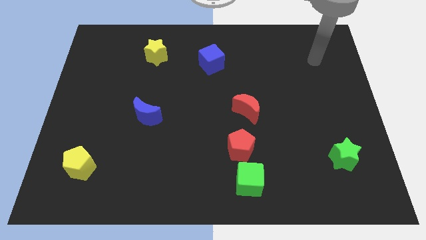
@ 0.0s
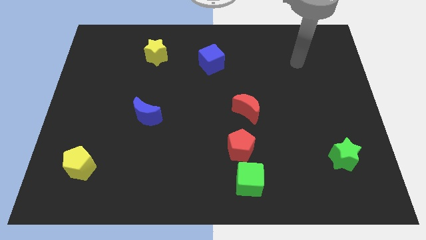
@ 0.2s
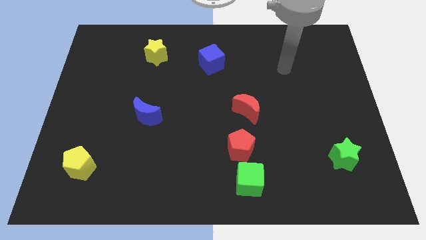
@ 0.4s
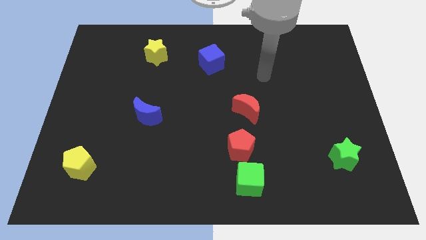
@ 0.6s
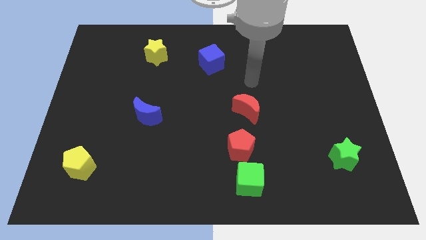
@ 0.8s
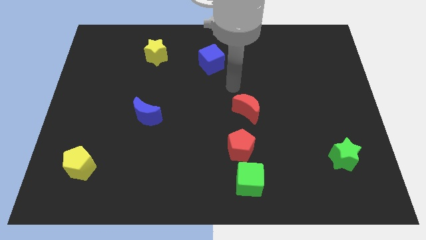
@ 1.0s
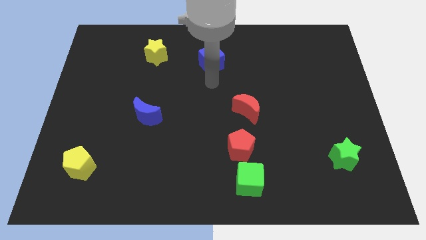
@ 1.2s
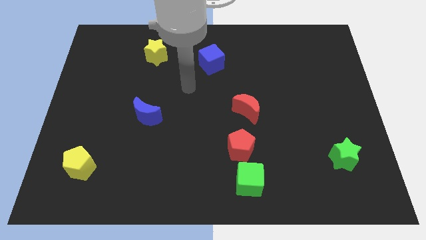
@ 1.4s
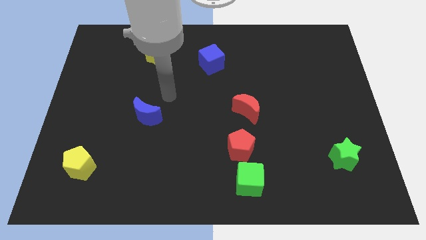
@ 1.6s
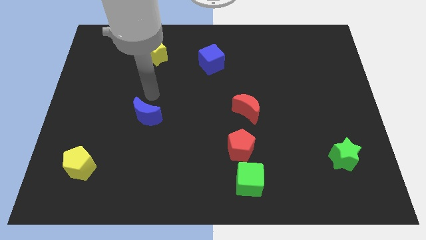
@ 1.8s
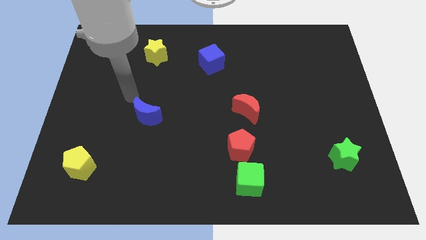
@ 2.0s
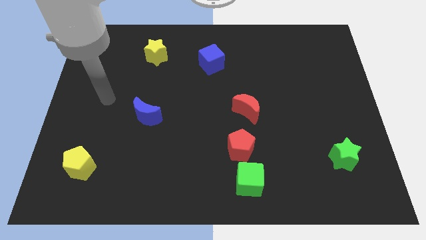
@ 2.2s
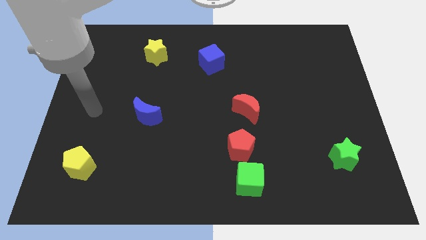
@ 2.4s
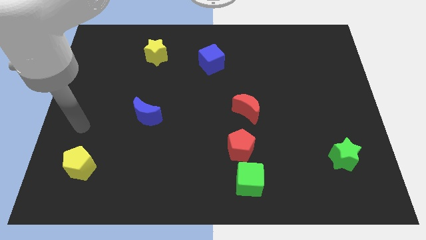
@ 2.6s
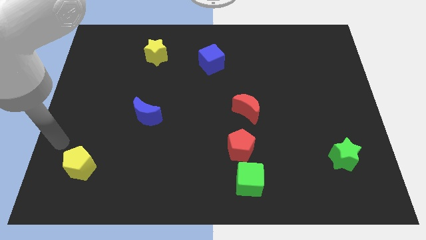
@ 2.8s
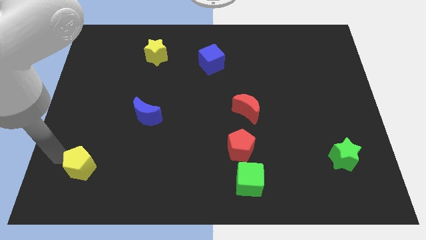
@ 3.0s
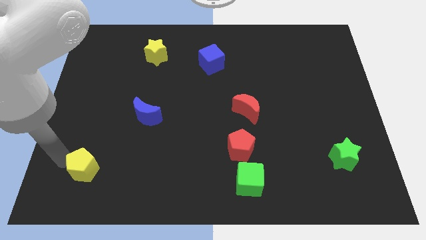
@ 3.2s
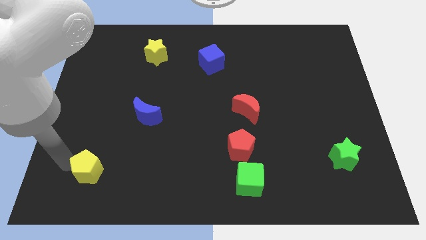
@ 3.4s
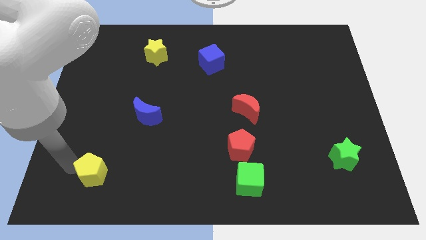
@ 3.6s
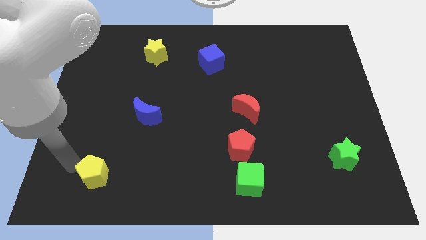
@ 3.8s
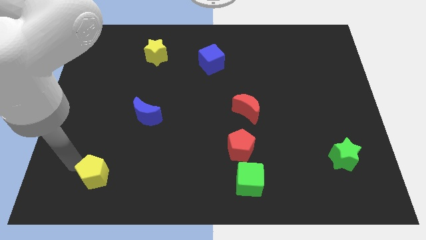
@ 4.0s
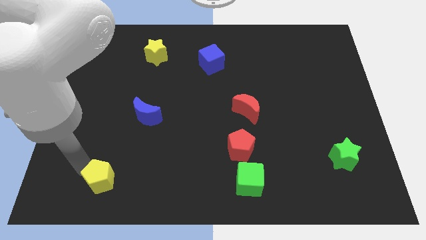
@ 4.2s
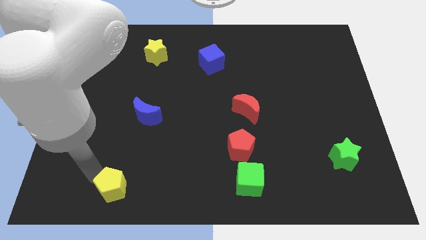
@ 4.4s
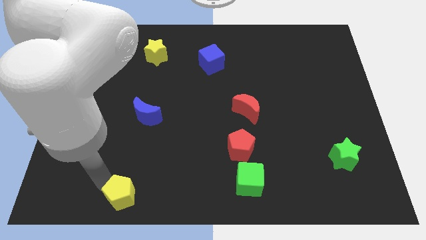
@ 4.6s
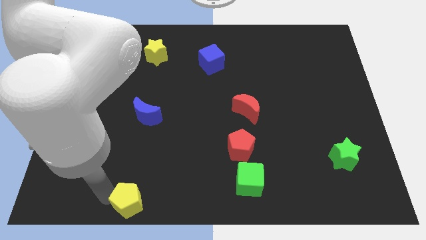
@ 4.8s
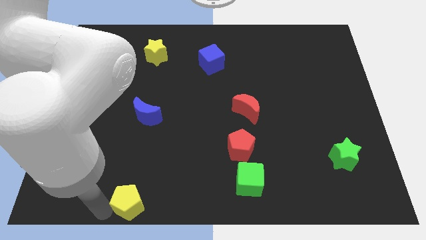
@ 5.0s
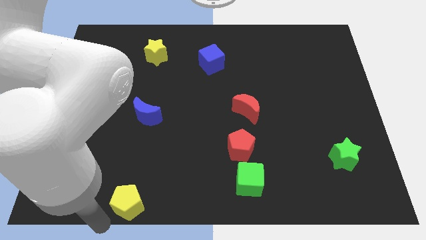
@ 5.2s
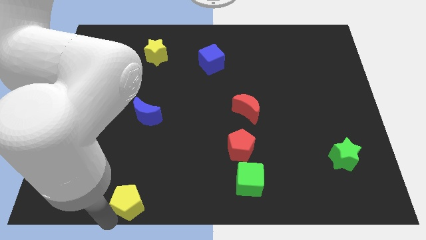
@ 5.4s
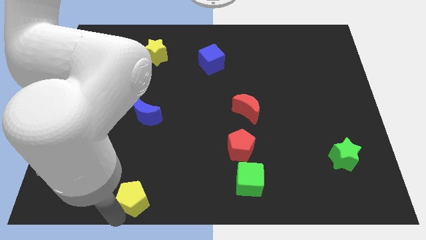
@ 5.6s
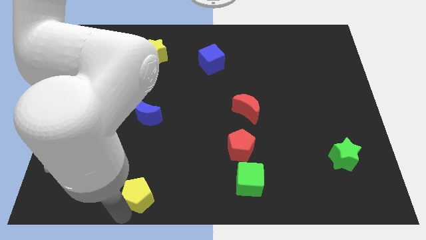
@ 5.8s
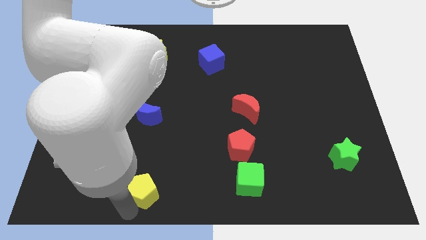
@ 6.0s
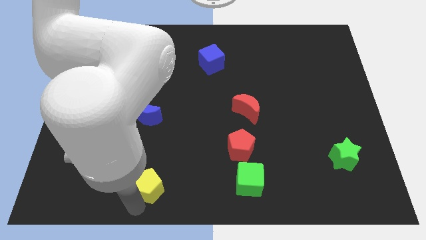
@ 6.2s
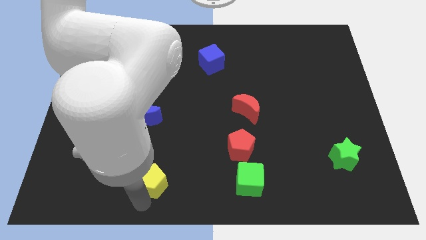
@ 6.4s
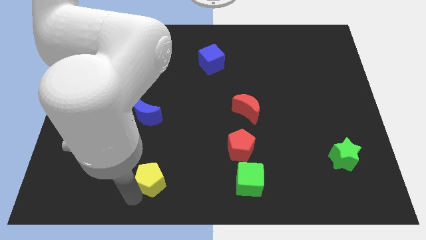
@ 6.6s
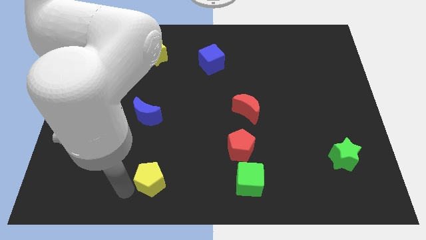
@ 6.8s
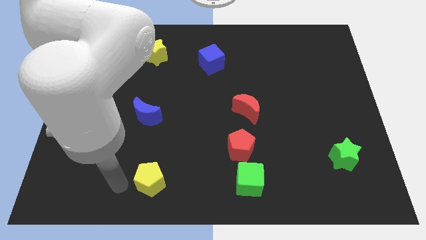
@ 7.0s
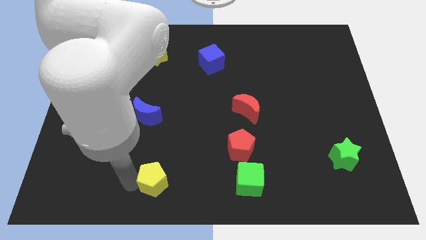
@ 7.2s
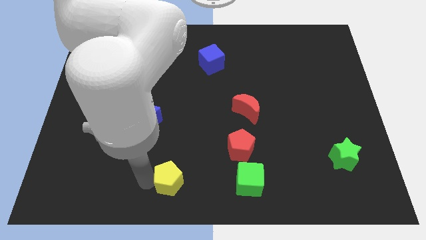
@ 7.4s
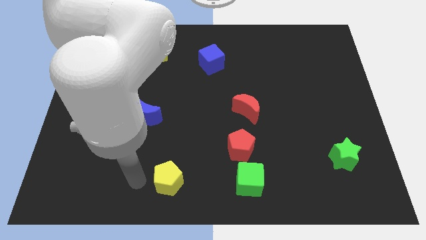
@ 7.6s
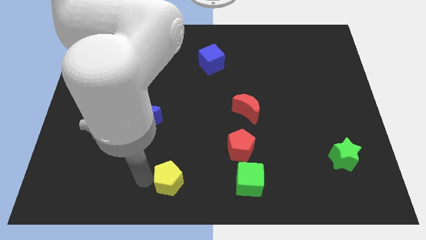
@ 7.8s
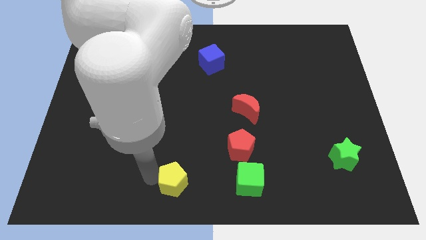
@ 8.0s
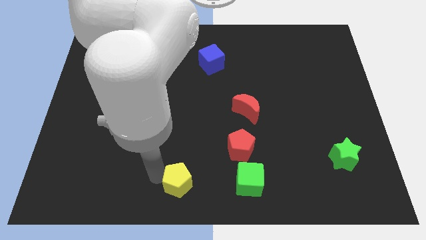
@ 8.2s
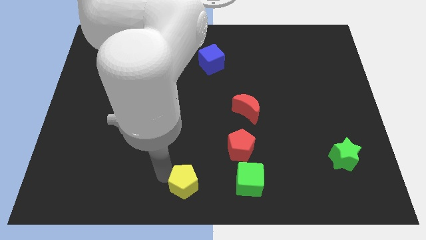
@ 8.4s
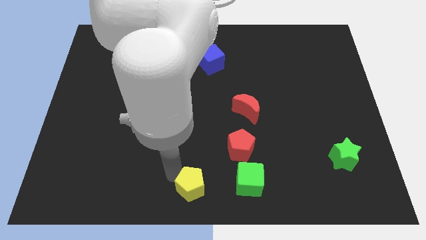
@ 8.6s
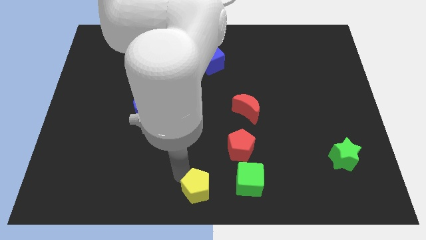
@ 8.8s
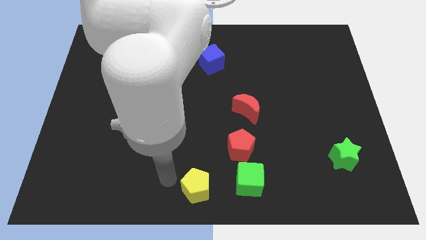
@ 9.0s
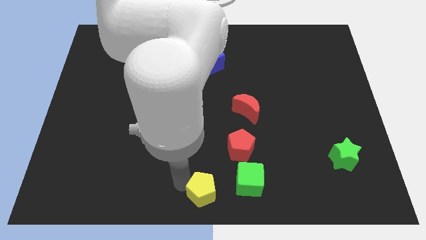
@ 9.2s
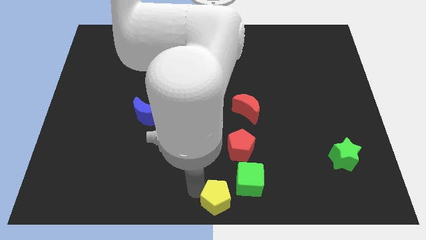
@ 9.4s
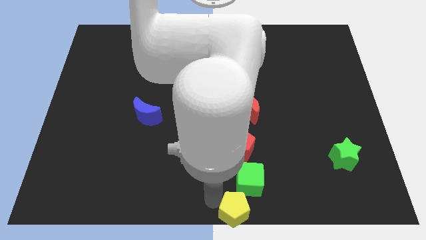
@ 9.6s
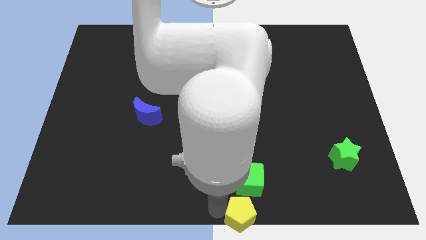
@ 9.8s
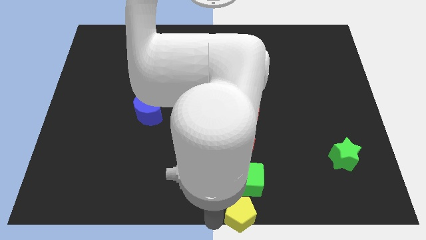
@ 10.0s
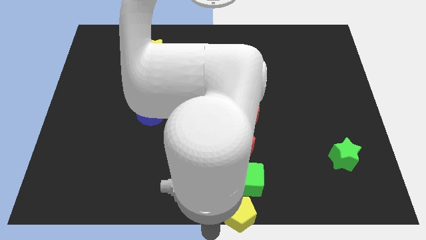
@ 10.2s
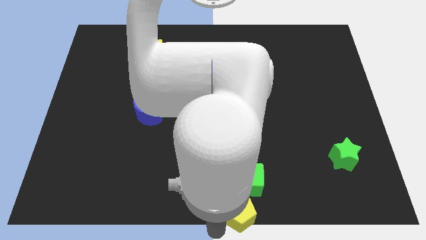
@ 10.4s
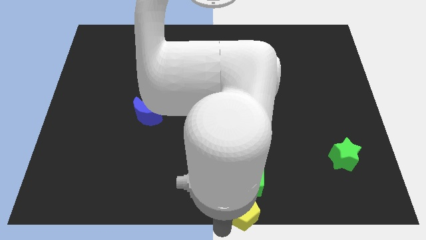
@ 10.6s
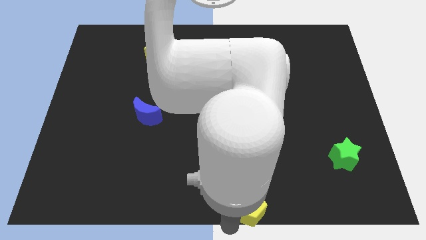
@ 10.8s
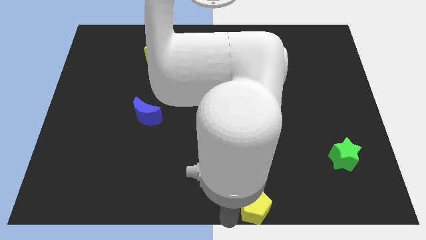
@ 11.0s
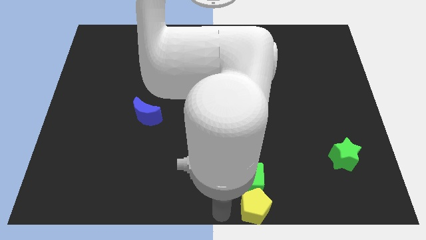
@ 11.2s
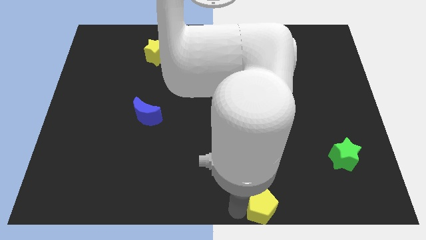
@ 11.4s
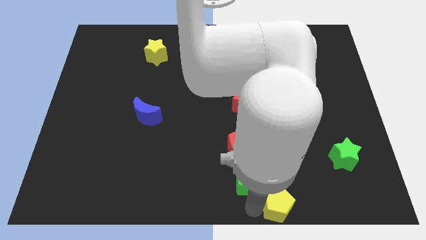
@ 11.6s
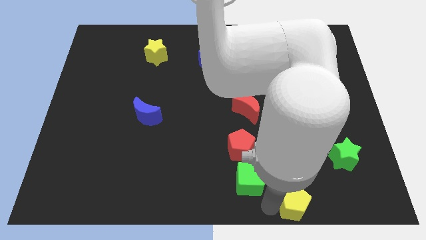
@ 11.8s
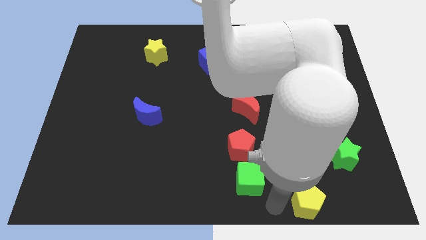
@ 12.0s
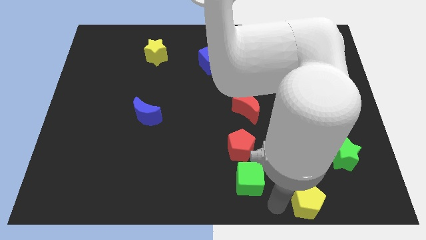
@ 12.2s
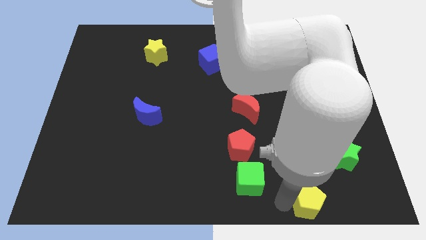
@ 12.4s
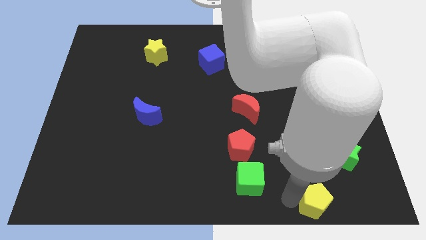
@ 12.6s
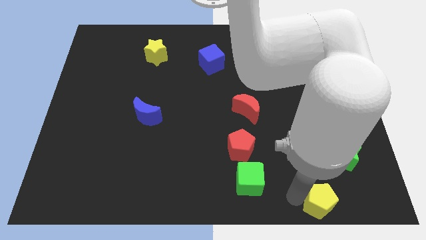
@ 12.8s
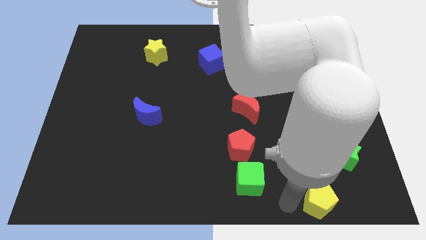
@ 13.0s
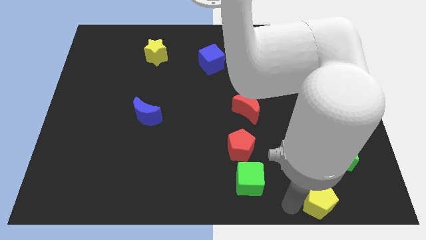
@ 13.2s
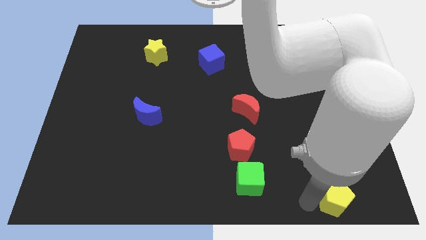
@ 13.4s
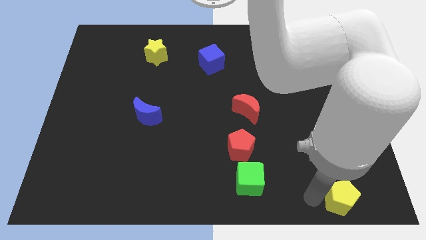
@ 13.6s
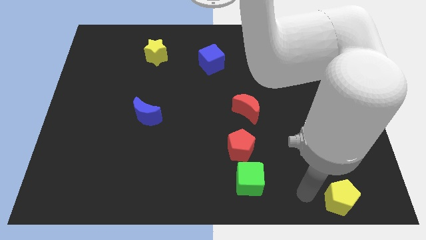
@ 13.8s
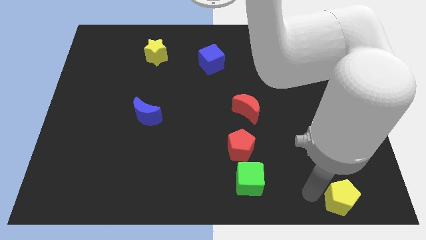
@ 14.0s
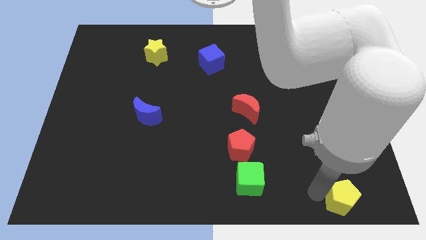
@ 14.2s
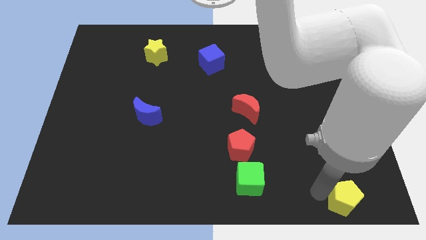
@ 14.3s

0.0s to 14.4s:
slide the yellow pentagon to the bottom right
